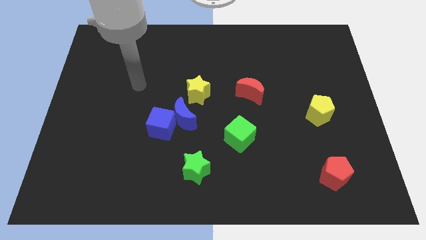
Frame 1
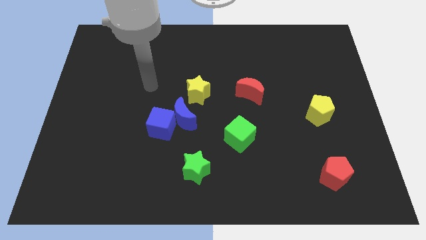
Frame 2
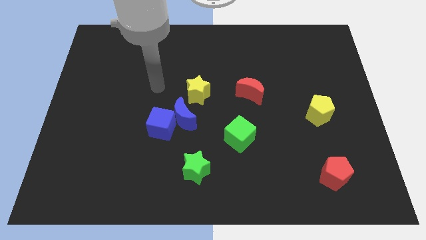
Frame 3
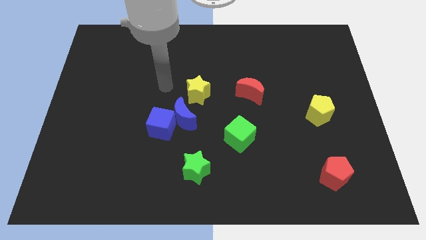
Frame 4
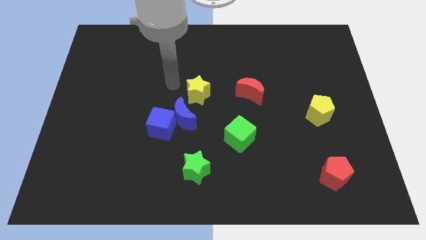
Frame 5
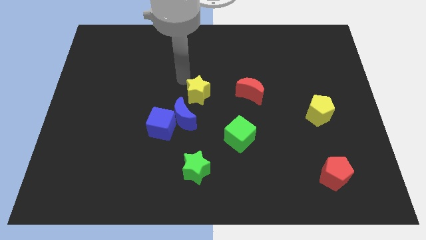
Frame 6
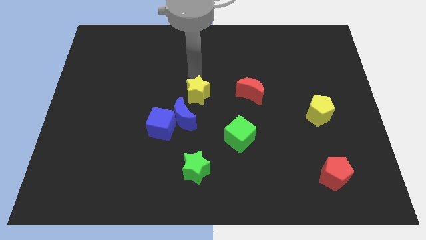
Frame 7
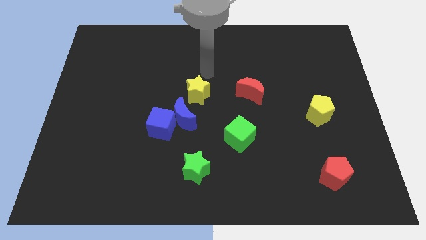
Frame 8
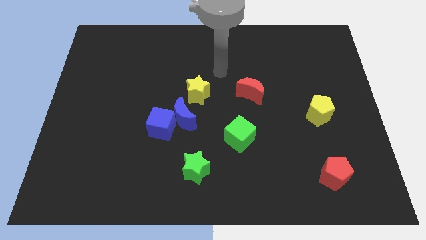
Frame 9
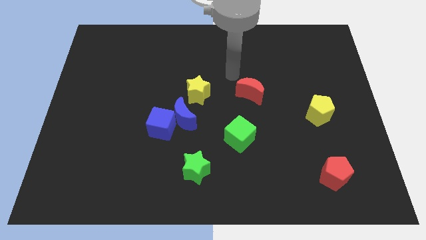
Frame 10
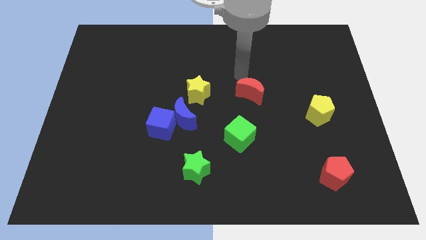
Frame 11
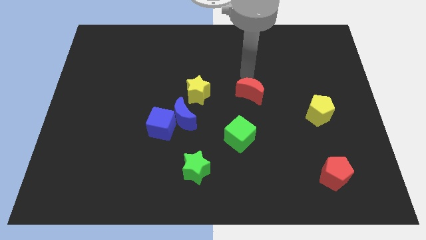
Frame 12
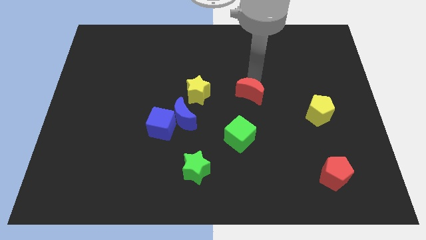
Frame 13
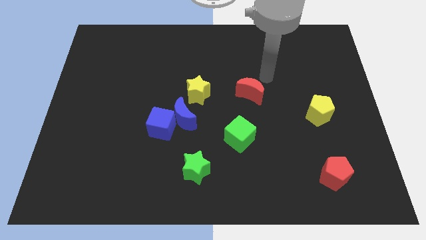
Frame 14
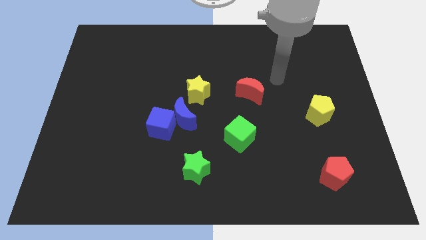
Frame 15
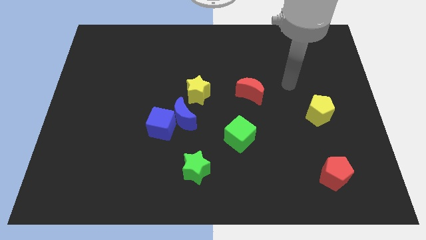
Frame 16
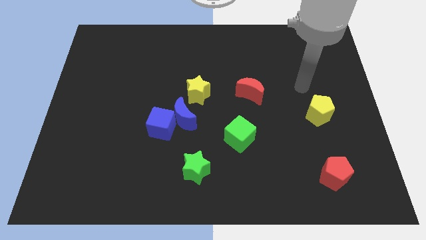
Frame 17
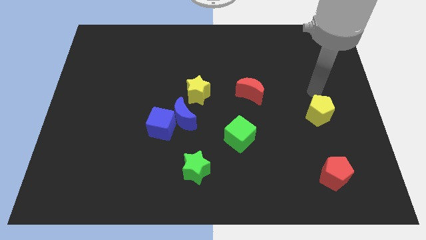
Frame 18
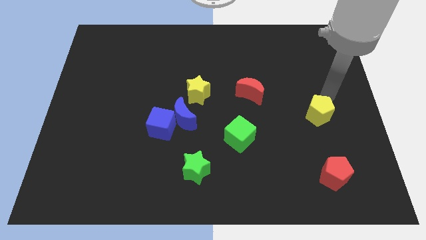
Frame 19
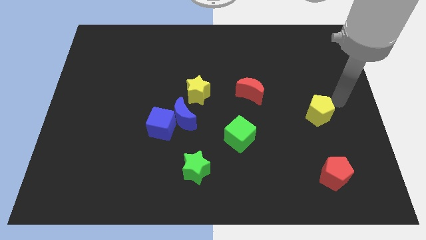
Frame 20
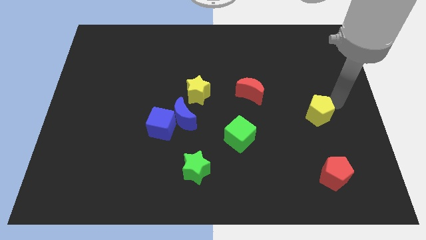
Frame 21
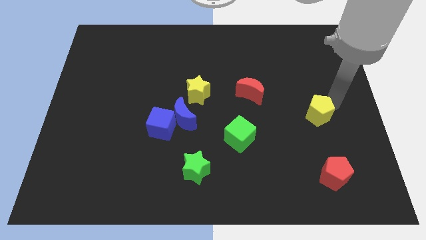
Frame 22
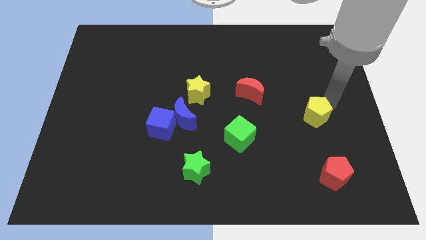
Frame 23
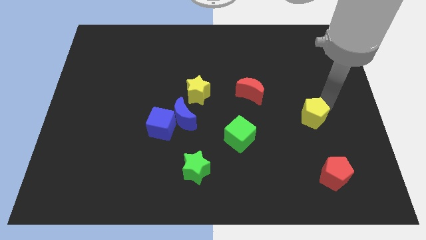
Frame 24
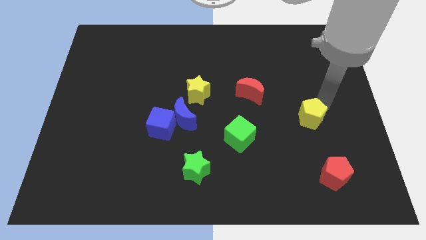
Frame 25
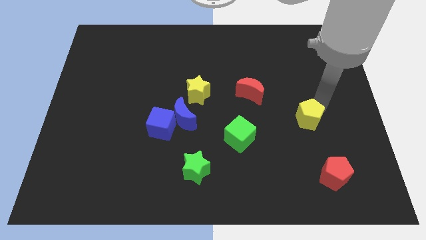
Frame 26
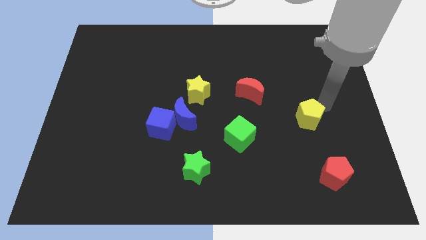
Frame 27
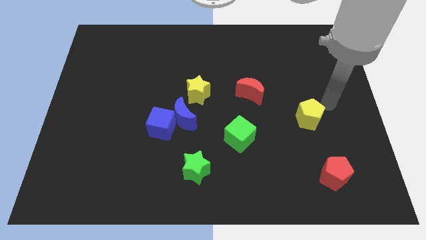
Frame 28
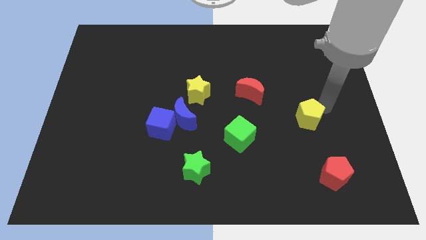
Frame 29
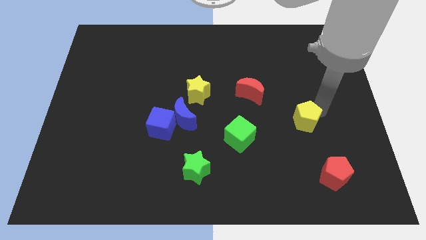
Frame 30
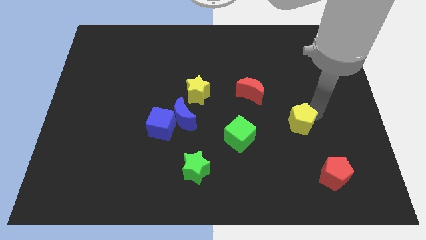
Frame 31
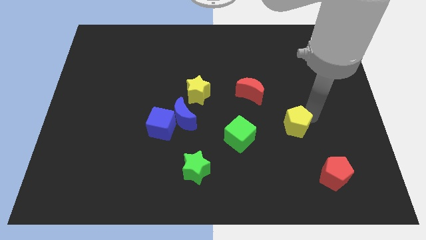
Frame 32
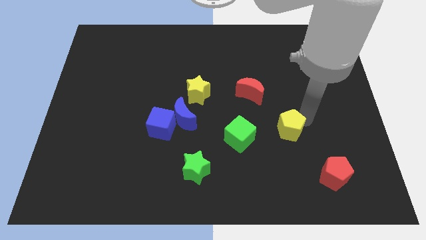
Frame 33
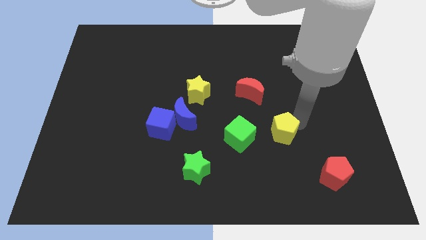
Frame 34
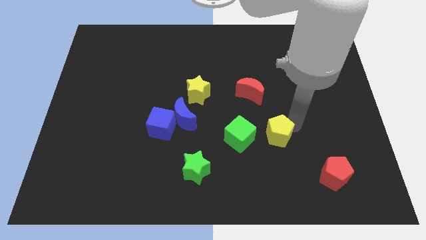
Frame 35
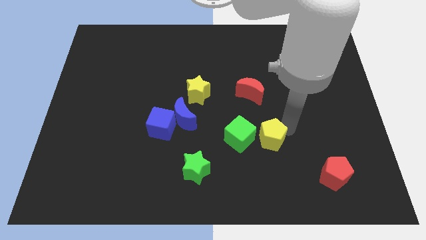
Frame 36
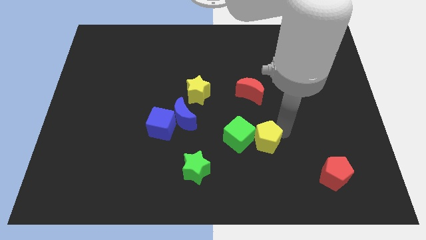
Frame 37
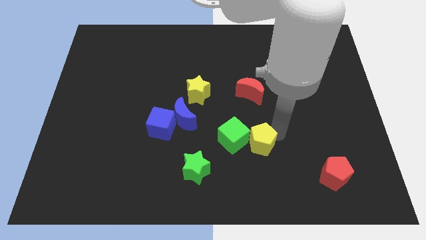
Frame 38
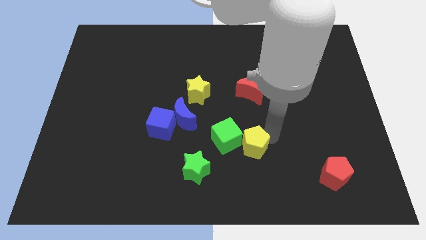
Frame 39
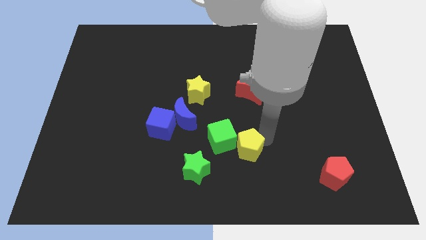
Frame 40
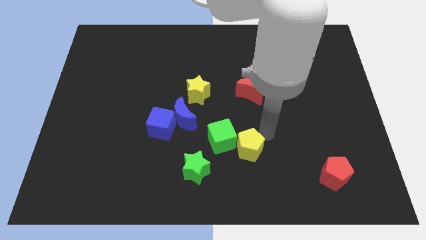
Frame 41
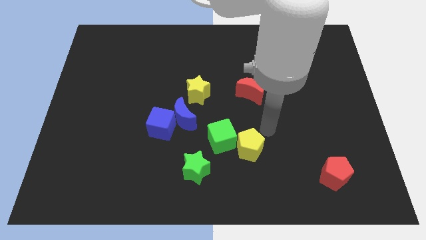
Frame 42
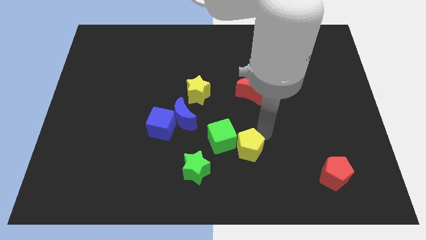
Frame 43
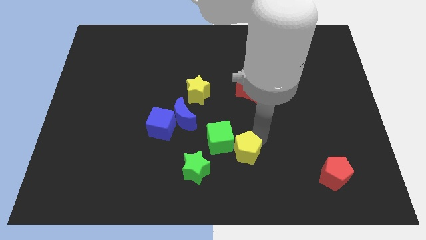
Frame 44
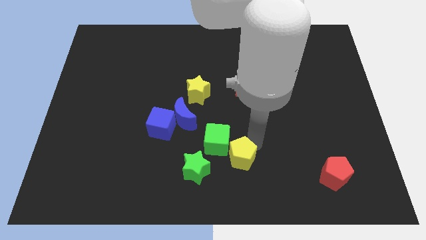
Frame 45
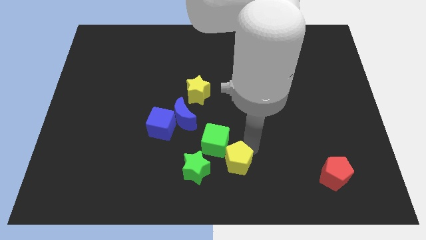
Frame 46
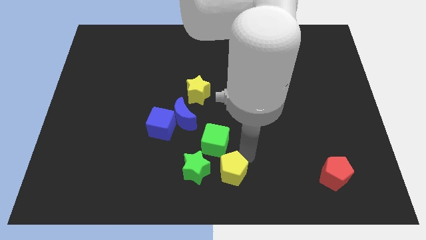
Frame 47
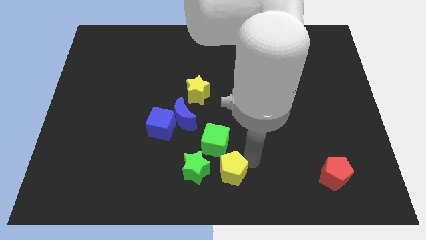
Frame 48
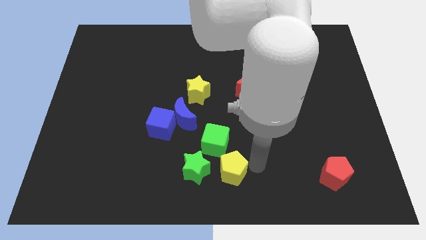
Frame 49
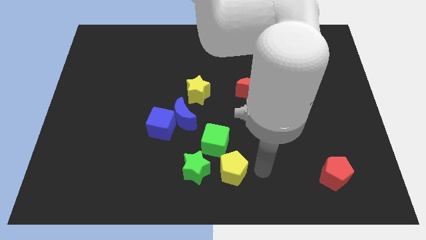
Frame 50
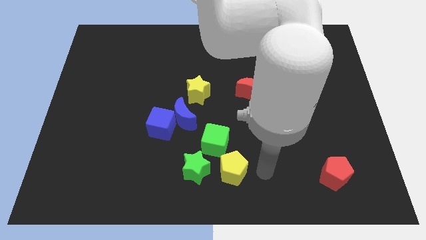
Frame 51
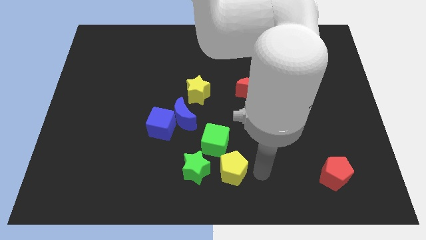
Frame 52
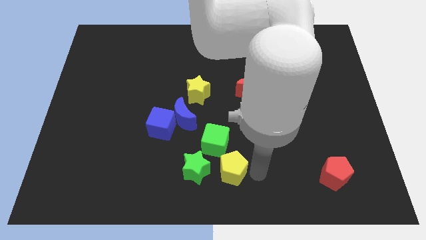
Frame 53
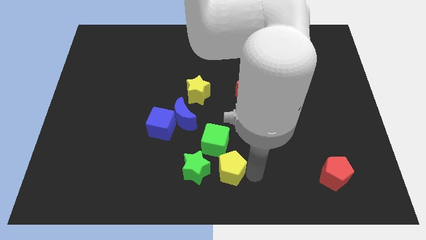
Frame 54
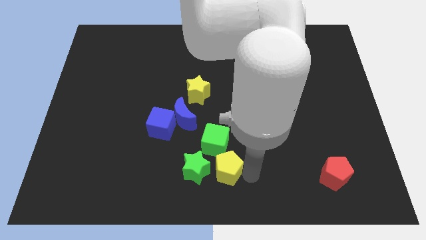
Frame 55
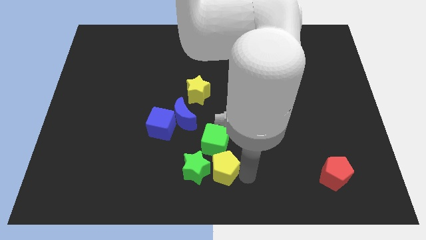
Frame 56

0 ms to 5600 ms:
push the yellow pentagon to the green star

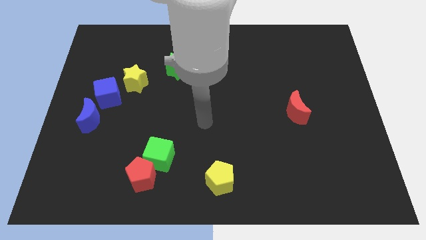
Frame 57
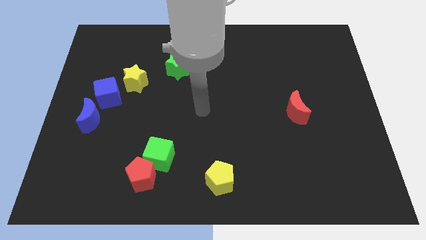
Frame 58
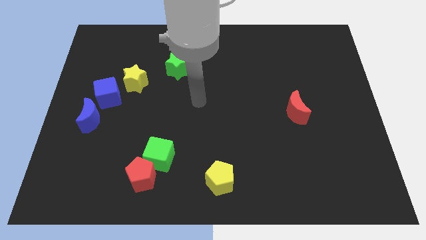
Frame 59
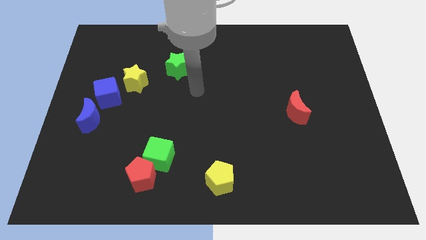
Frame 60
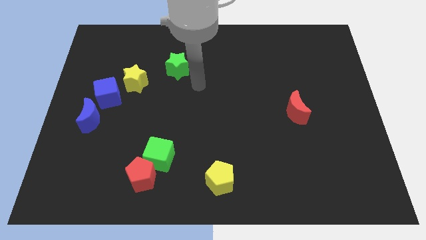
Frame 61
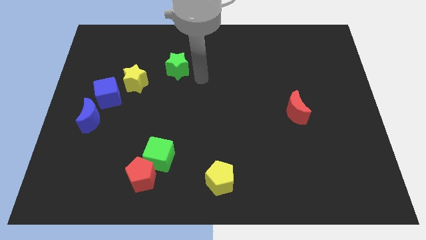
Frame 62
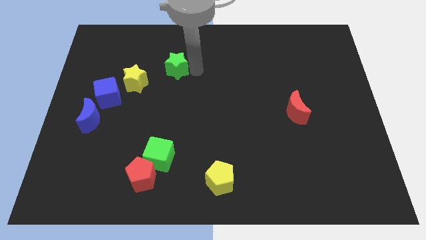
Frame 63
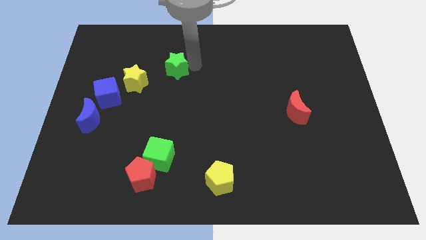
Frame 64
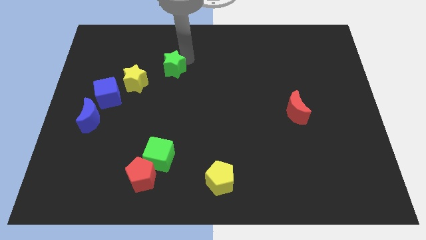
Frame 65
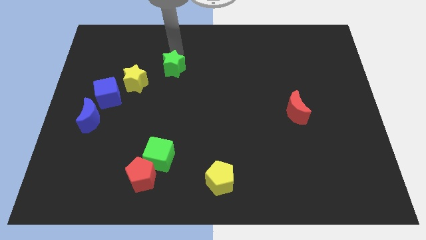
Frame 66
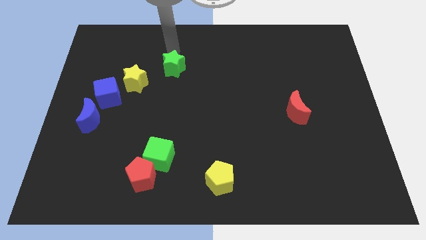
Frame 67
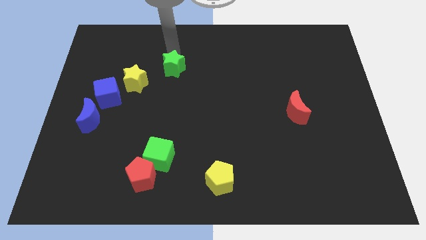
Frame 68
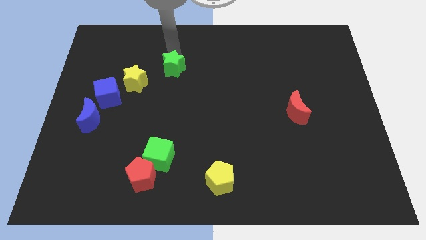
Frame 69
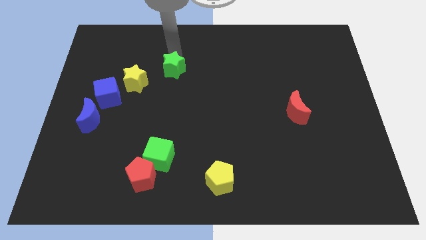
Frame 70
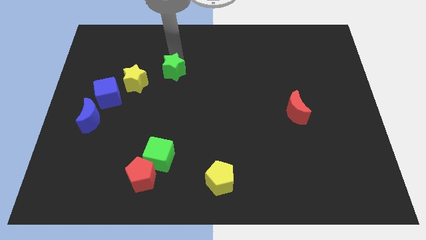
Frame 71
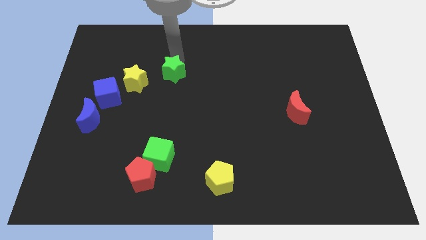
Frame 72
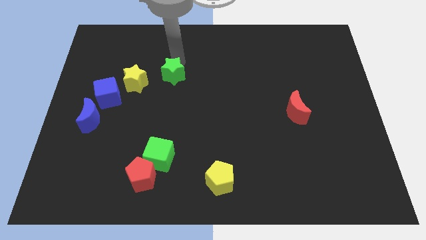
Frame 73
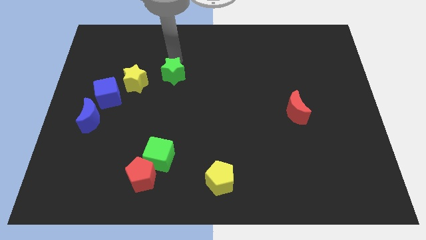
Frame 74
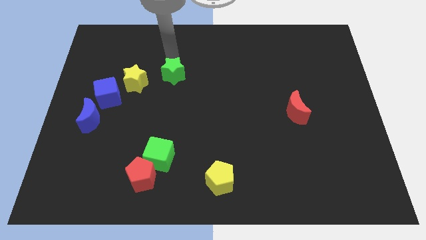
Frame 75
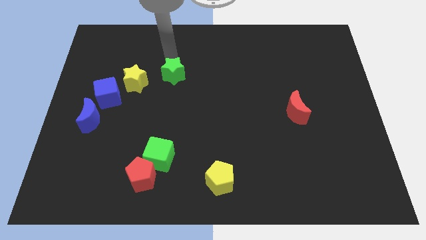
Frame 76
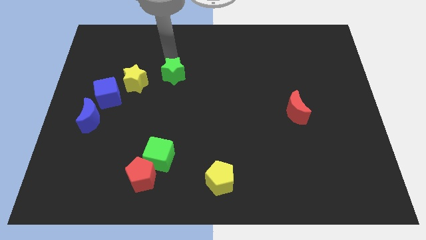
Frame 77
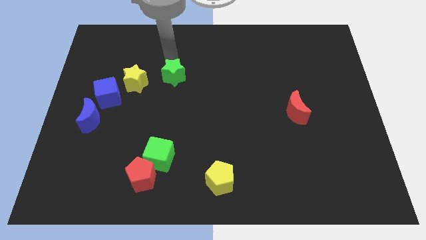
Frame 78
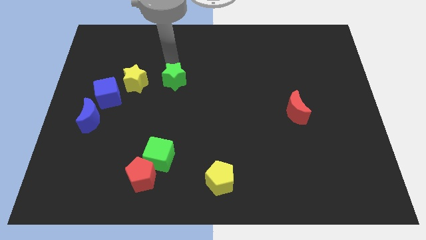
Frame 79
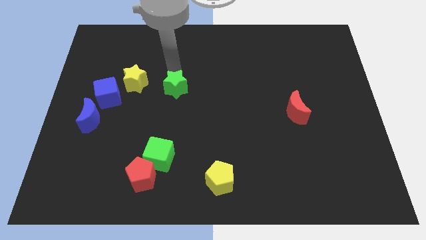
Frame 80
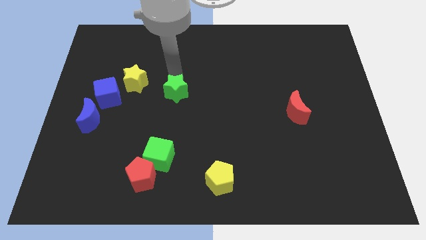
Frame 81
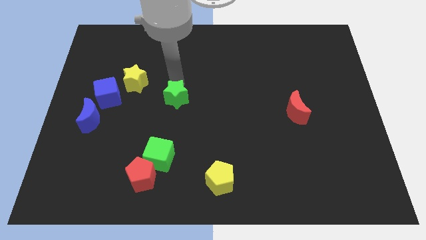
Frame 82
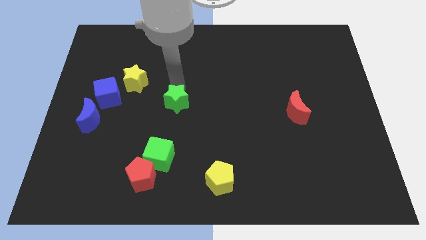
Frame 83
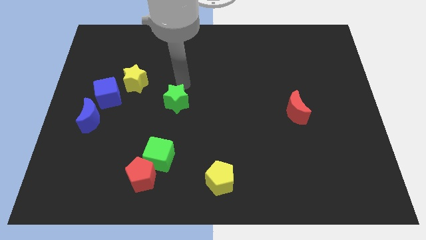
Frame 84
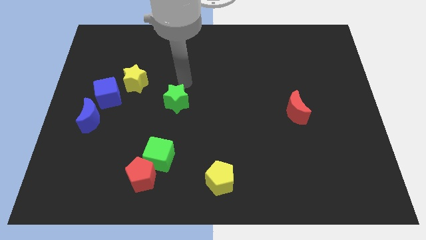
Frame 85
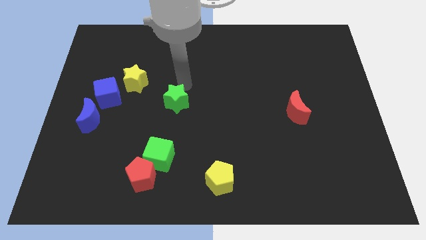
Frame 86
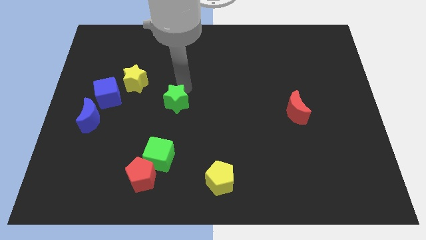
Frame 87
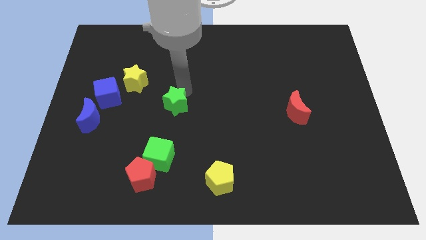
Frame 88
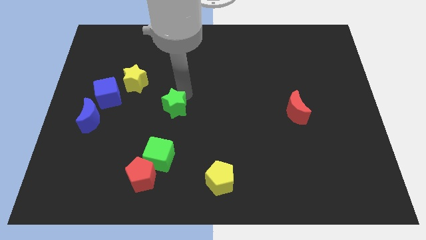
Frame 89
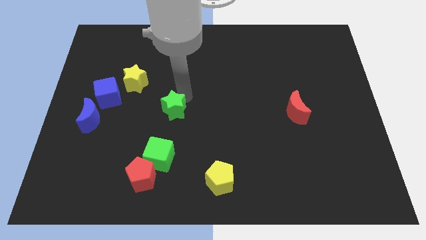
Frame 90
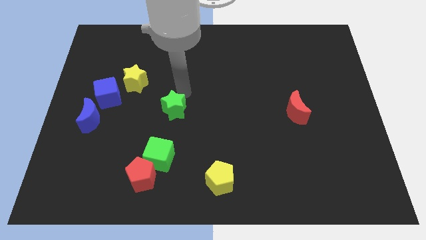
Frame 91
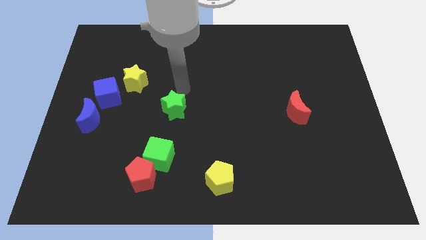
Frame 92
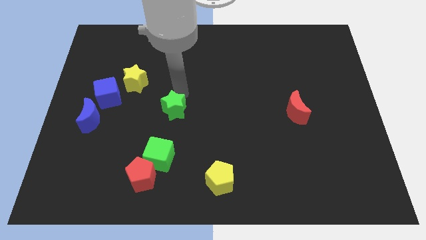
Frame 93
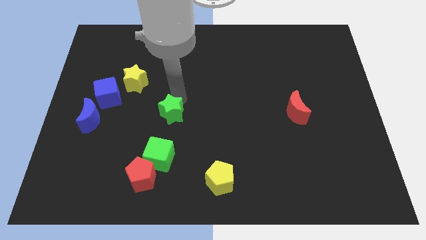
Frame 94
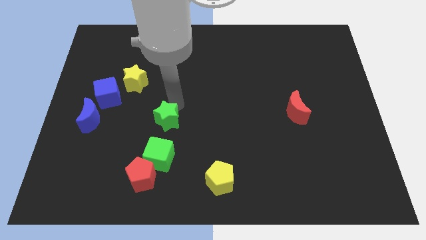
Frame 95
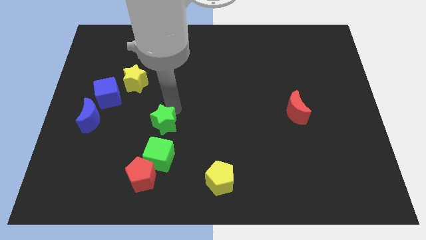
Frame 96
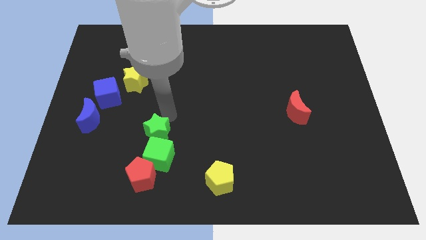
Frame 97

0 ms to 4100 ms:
push the green star to the green cube
